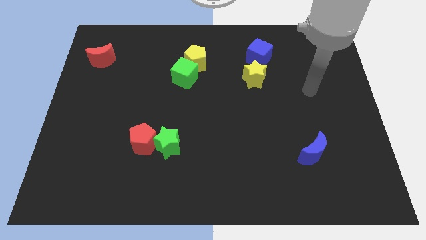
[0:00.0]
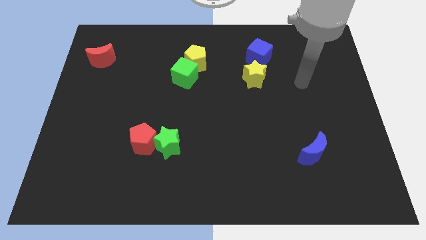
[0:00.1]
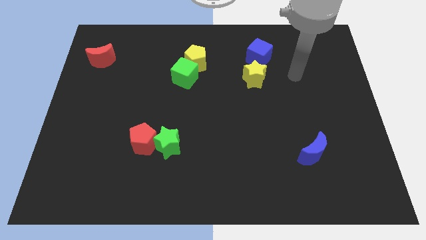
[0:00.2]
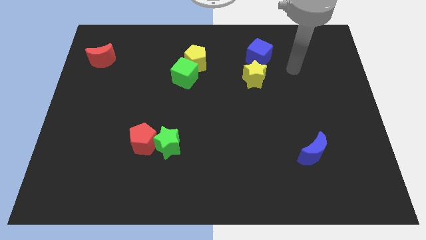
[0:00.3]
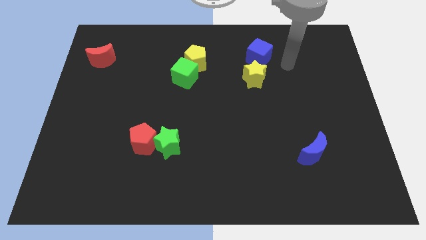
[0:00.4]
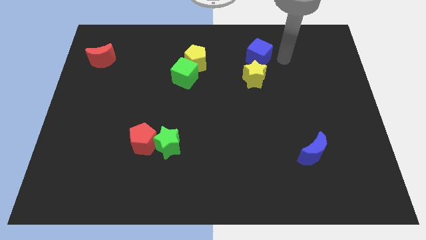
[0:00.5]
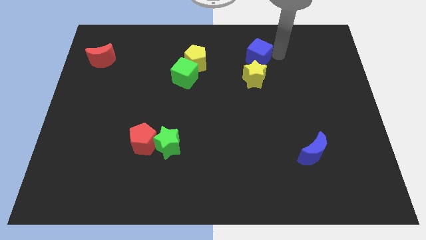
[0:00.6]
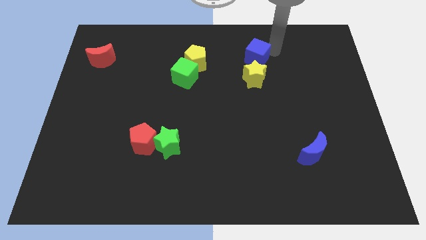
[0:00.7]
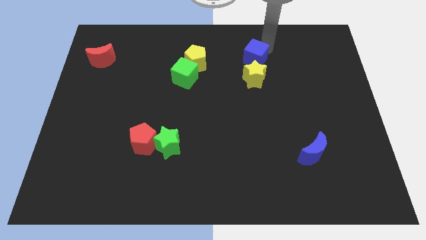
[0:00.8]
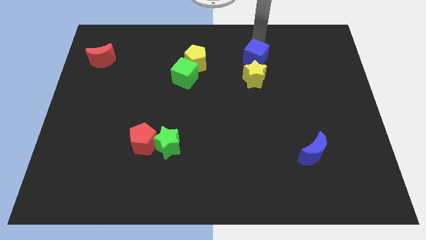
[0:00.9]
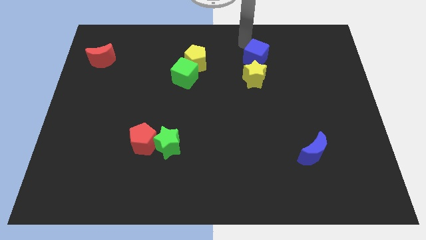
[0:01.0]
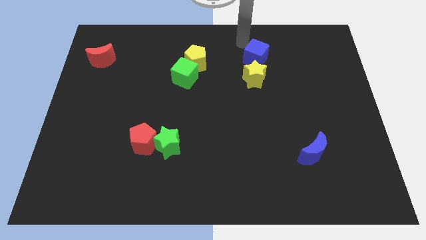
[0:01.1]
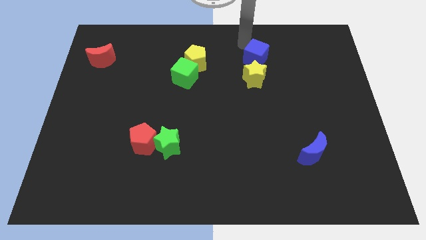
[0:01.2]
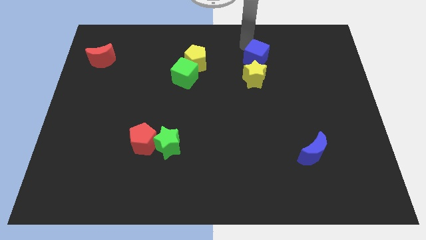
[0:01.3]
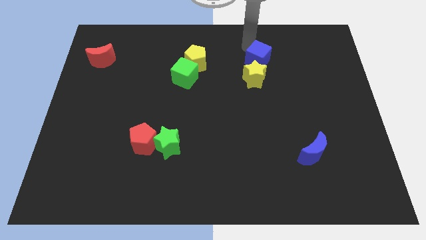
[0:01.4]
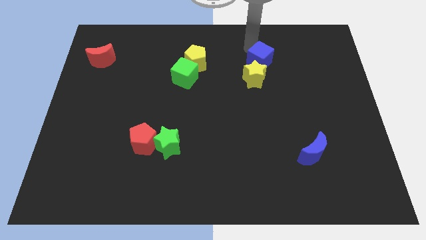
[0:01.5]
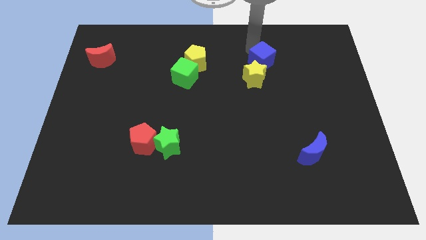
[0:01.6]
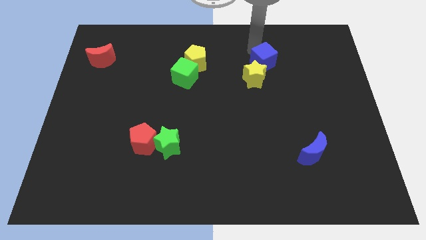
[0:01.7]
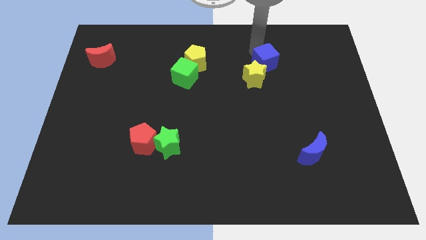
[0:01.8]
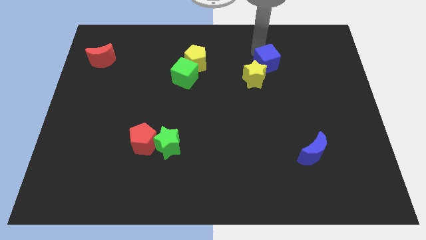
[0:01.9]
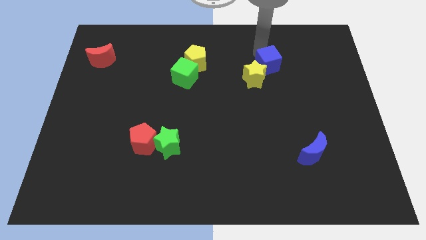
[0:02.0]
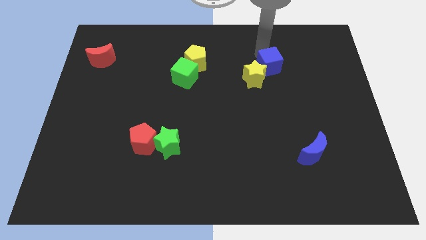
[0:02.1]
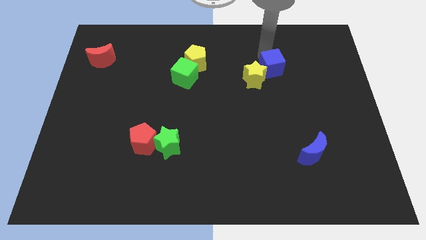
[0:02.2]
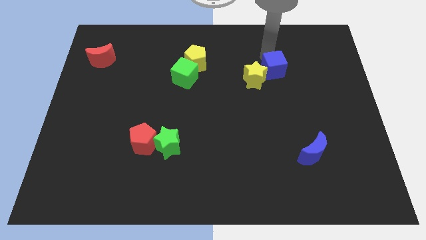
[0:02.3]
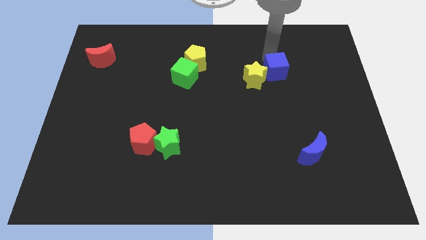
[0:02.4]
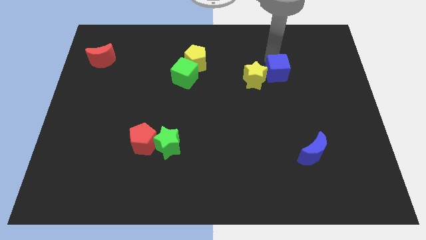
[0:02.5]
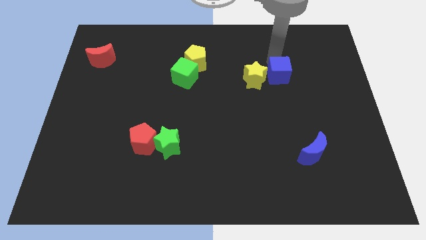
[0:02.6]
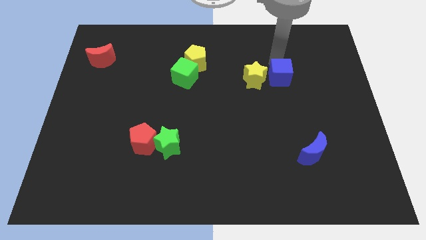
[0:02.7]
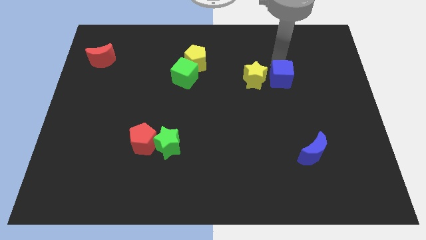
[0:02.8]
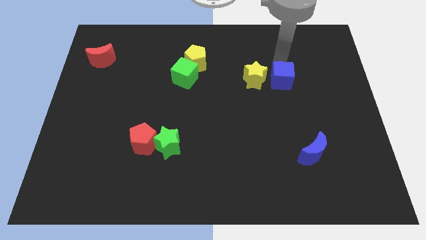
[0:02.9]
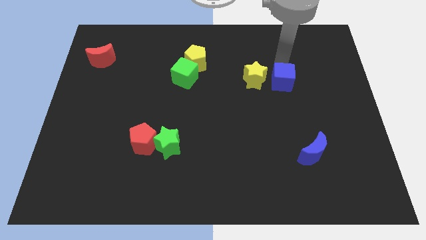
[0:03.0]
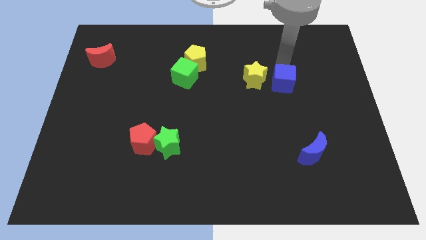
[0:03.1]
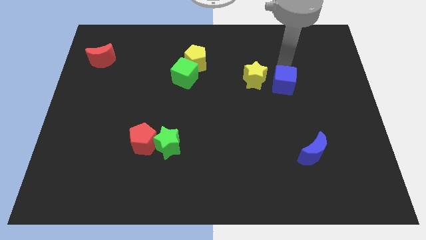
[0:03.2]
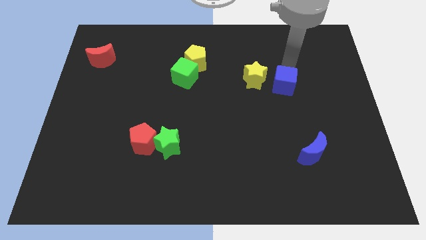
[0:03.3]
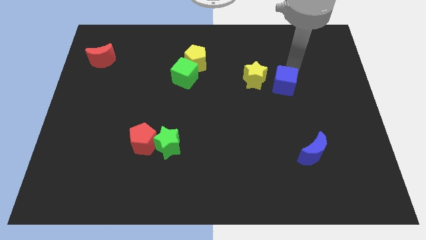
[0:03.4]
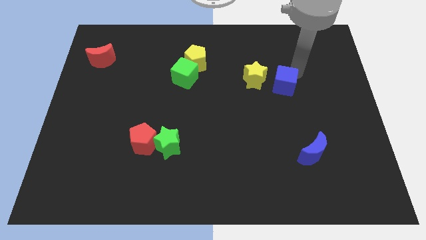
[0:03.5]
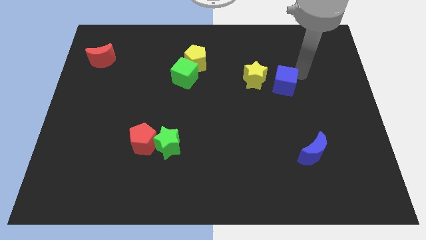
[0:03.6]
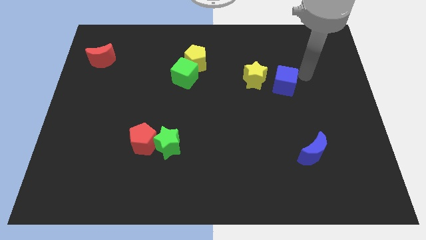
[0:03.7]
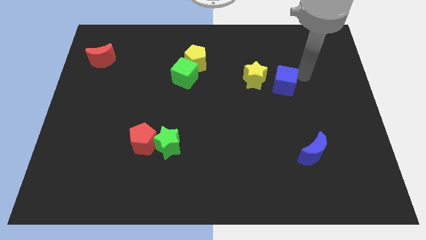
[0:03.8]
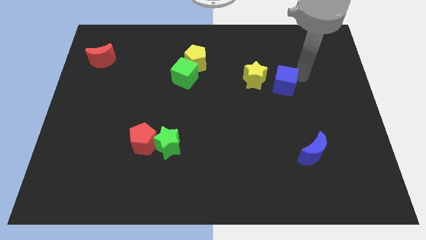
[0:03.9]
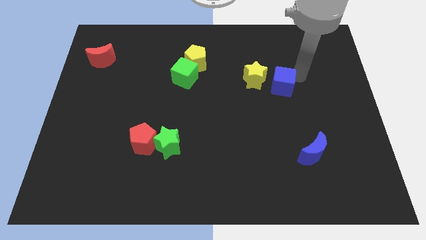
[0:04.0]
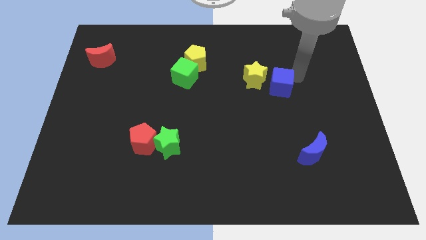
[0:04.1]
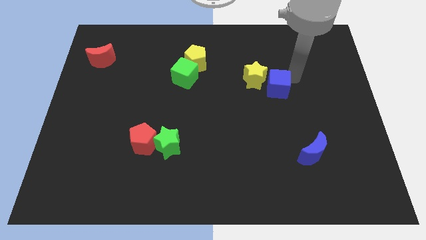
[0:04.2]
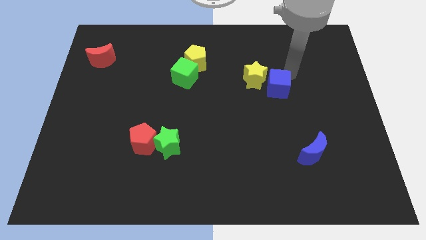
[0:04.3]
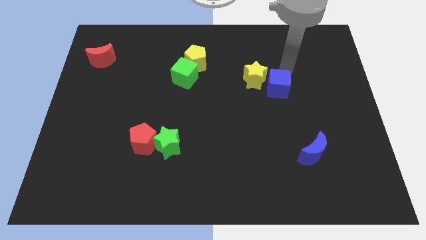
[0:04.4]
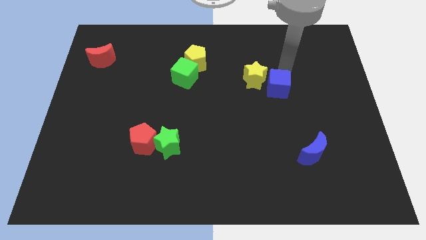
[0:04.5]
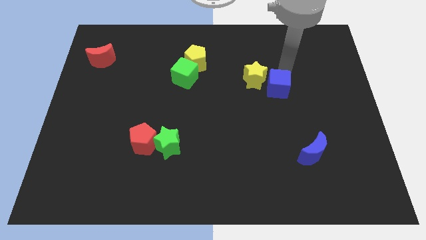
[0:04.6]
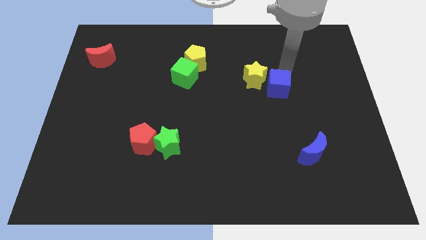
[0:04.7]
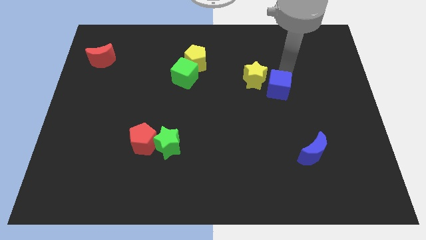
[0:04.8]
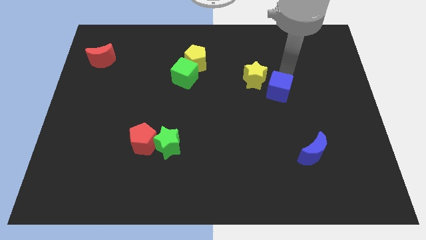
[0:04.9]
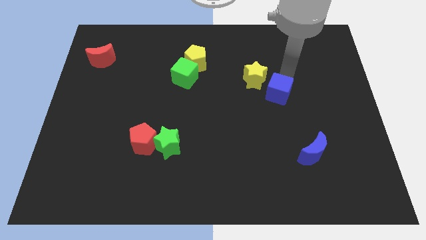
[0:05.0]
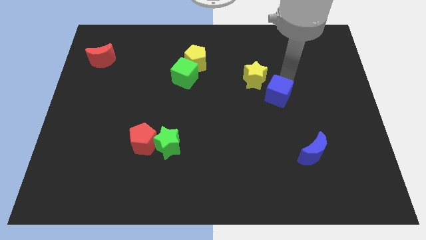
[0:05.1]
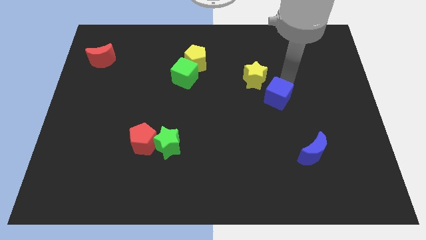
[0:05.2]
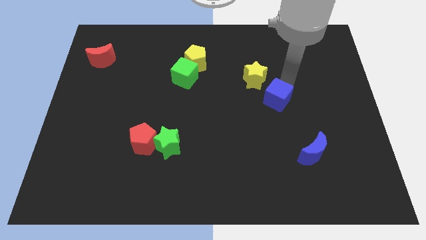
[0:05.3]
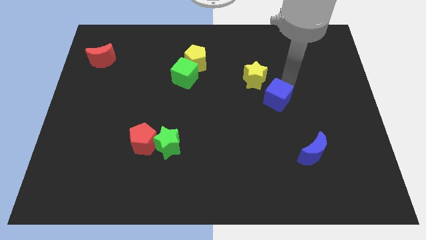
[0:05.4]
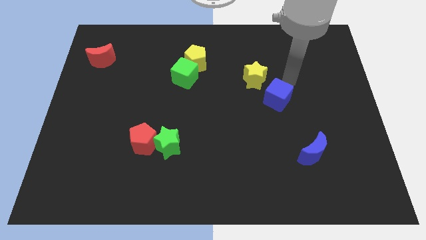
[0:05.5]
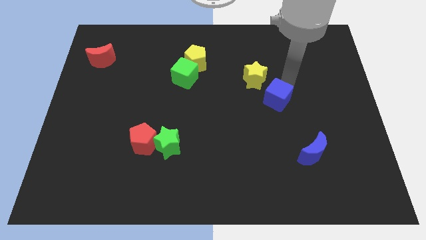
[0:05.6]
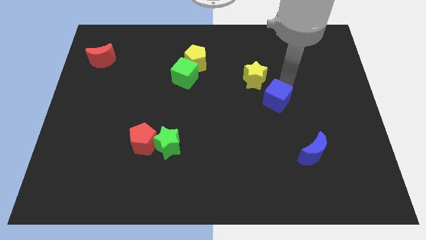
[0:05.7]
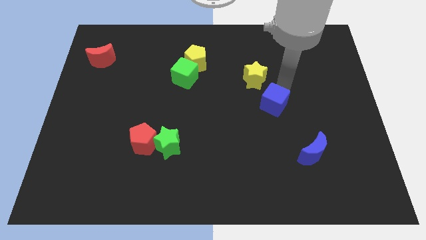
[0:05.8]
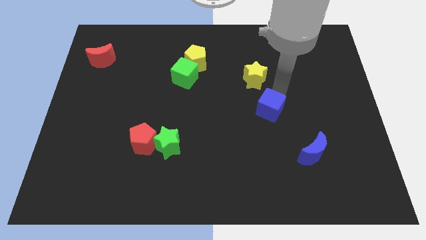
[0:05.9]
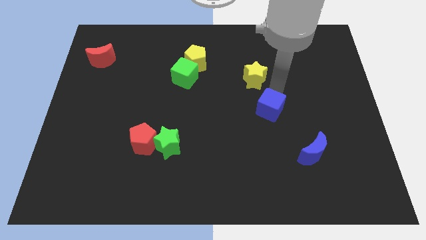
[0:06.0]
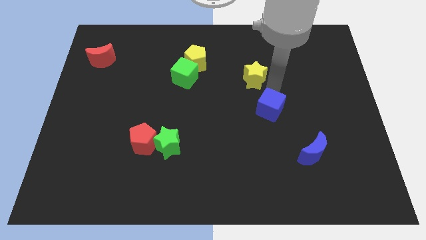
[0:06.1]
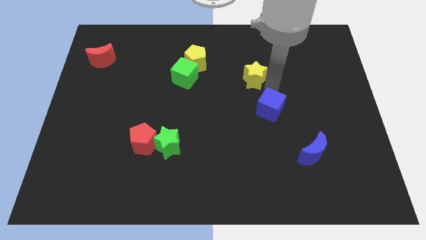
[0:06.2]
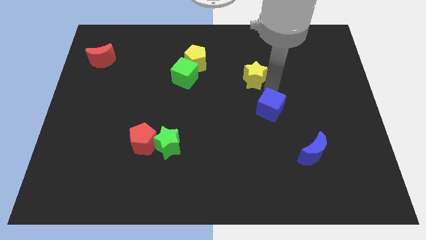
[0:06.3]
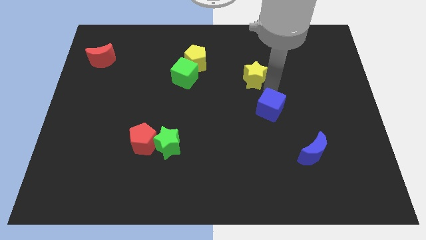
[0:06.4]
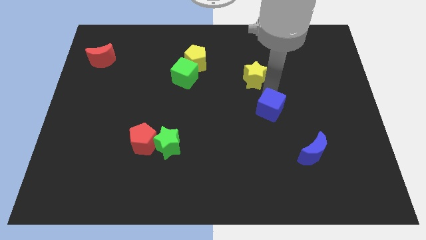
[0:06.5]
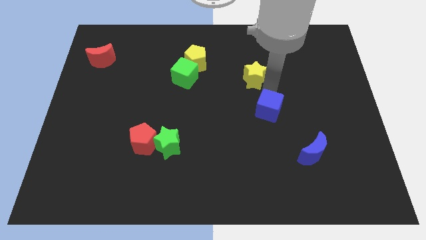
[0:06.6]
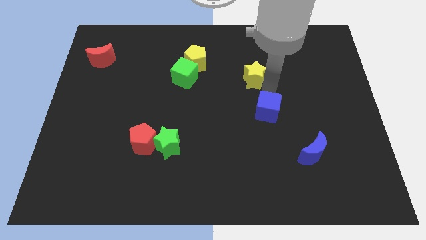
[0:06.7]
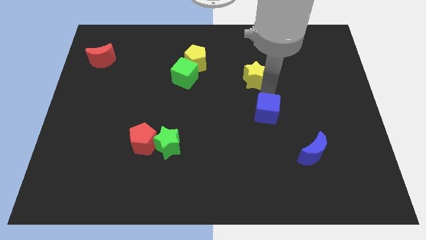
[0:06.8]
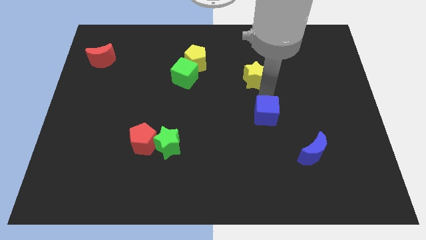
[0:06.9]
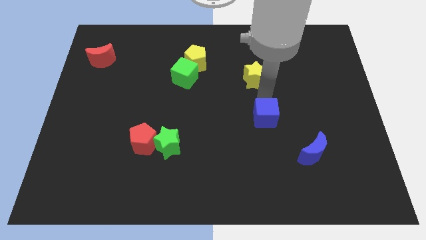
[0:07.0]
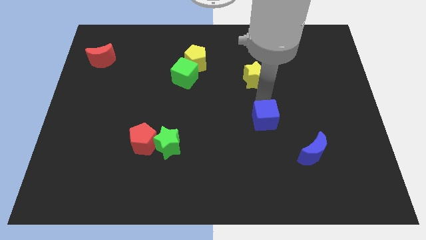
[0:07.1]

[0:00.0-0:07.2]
move the blue cube downwards

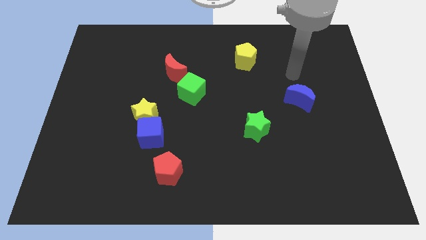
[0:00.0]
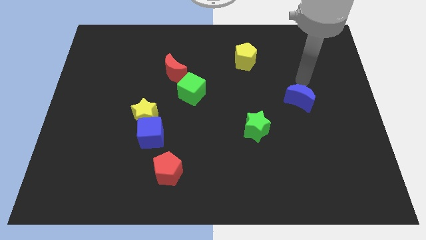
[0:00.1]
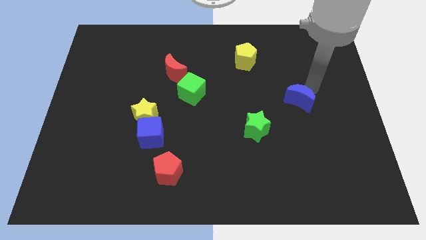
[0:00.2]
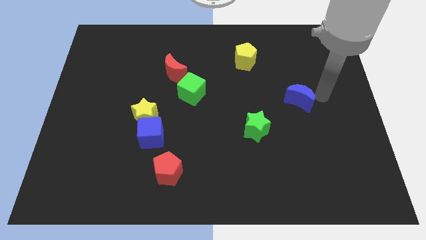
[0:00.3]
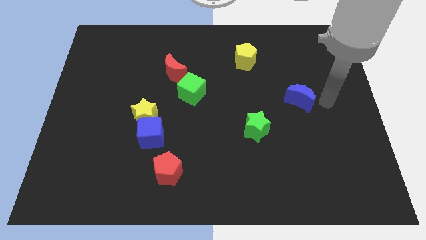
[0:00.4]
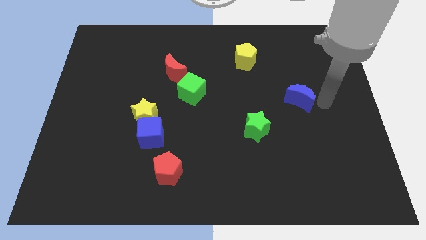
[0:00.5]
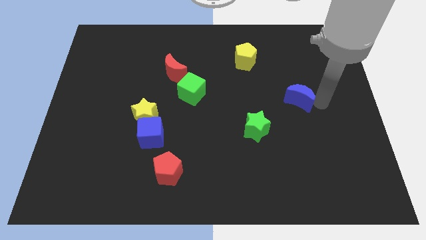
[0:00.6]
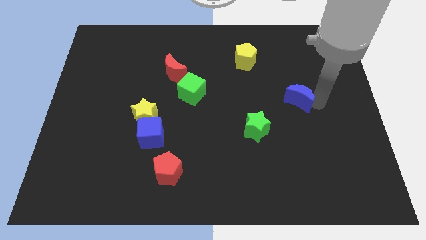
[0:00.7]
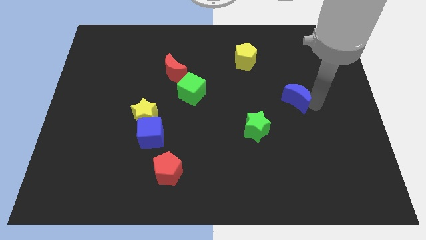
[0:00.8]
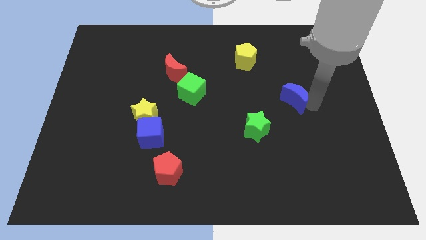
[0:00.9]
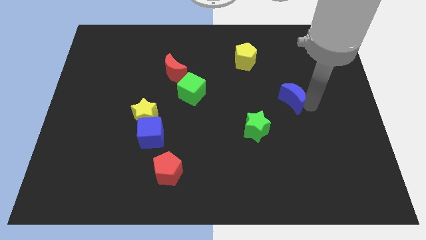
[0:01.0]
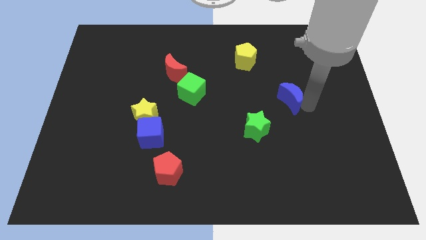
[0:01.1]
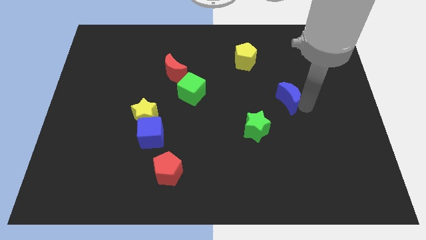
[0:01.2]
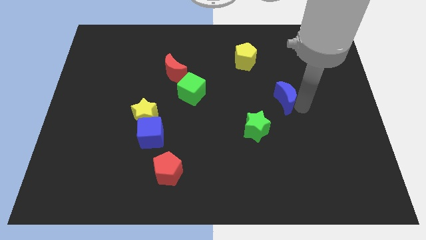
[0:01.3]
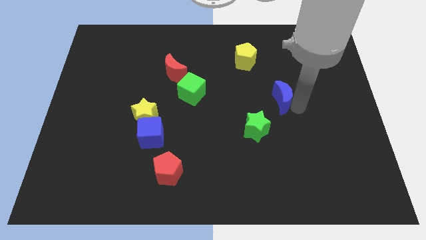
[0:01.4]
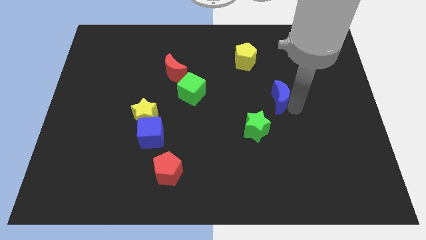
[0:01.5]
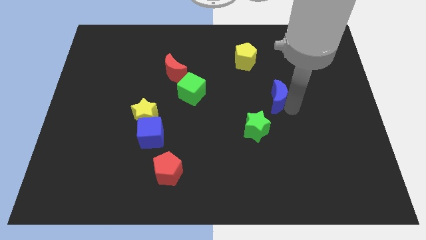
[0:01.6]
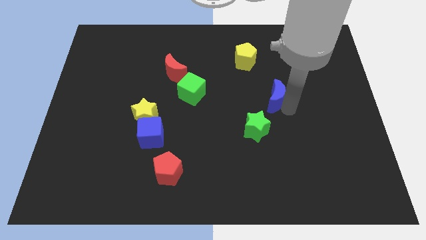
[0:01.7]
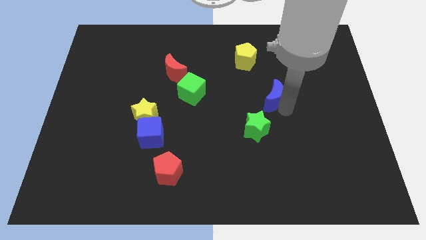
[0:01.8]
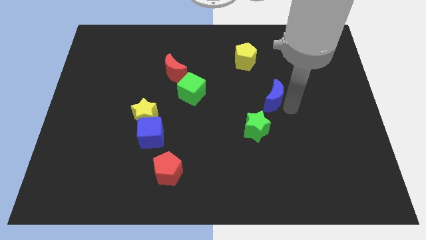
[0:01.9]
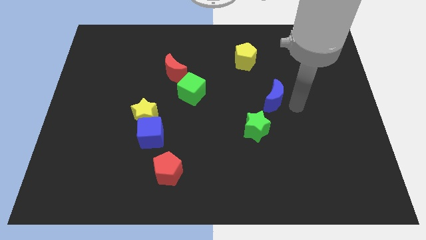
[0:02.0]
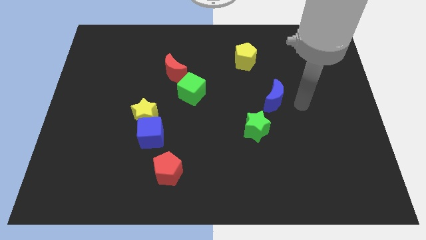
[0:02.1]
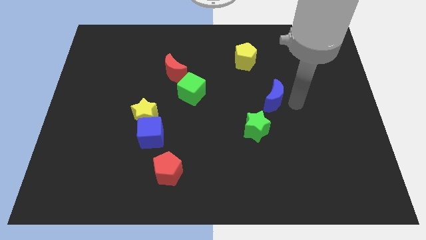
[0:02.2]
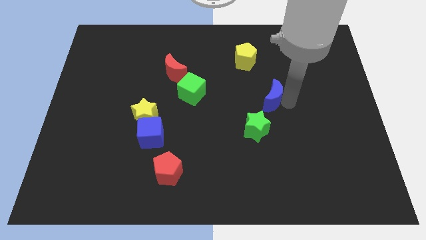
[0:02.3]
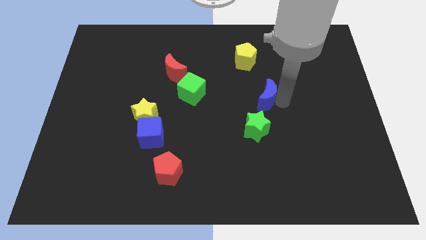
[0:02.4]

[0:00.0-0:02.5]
push the blue moon a little bit to the left
